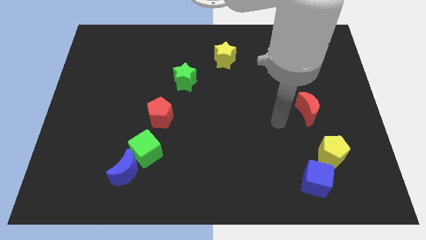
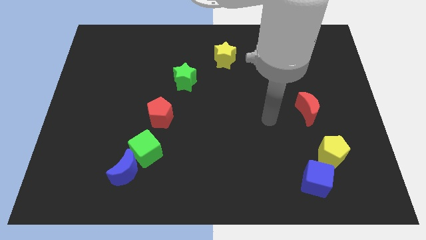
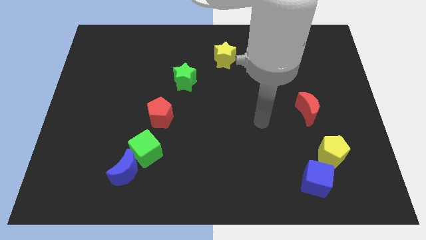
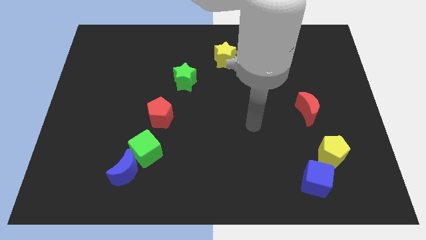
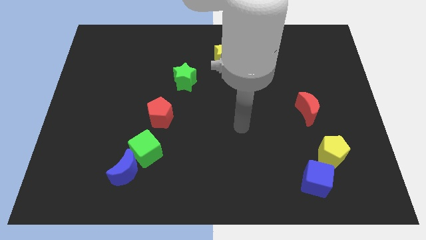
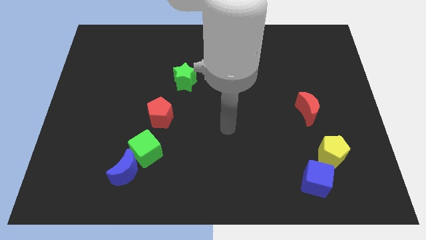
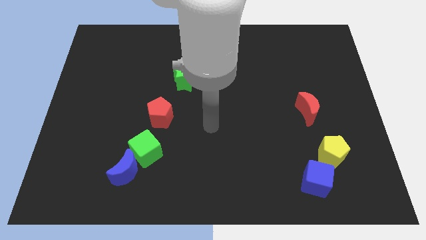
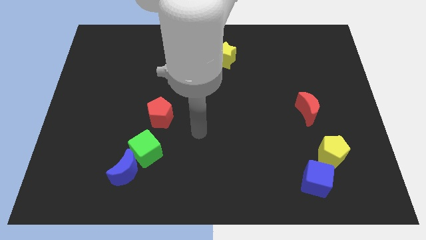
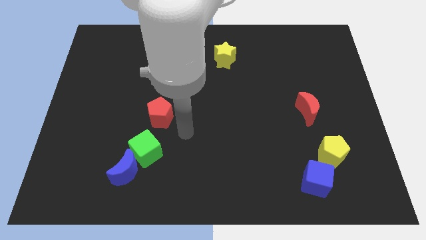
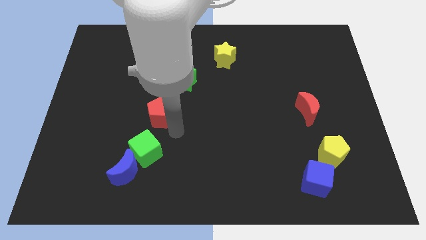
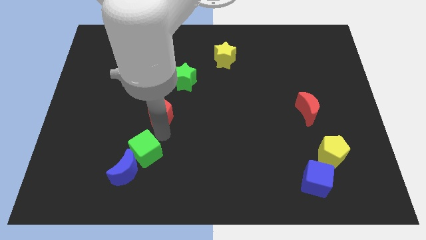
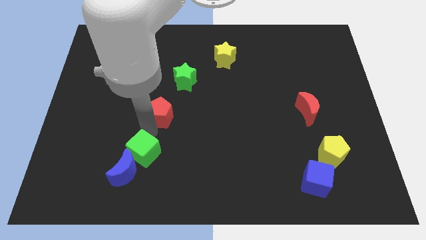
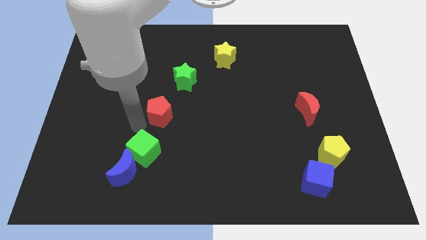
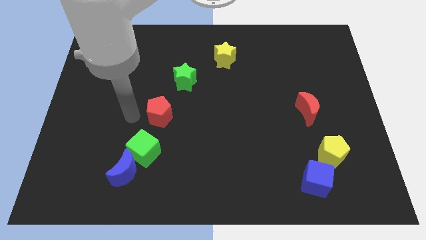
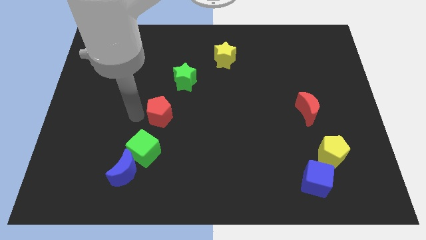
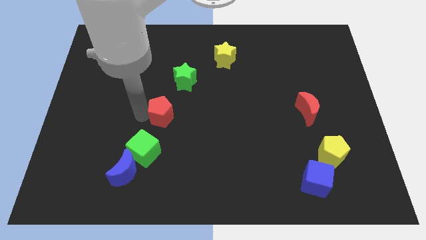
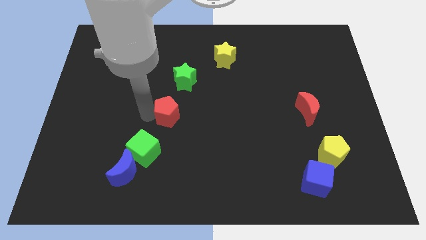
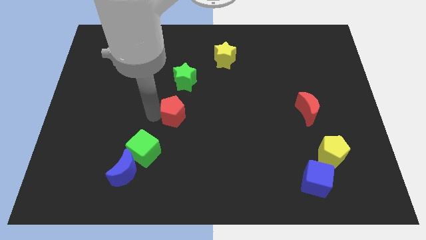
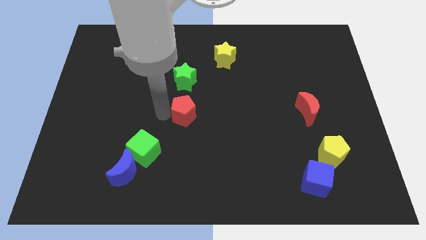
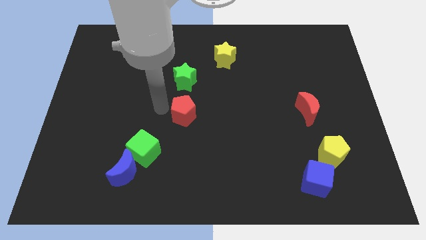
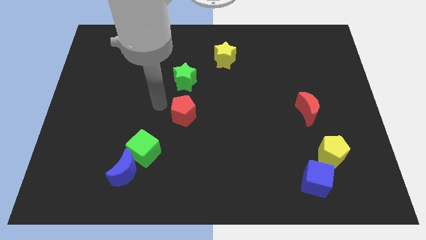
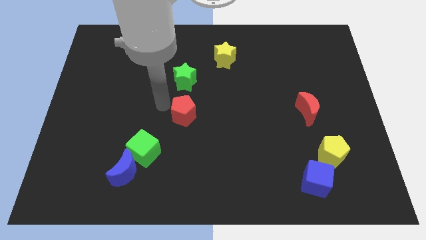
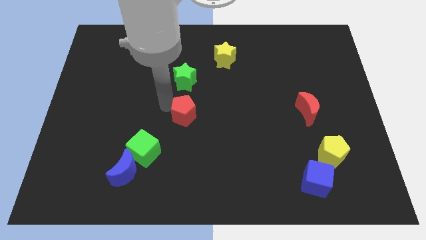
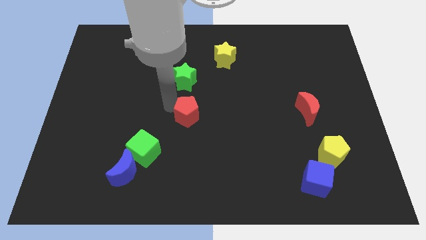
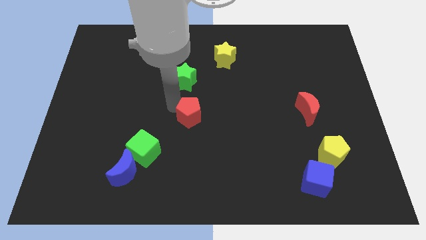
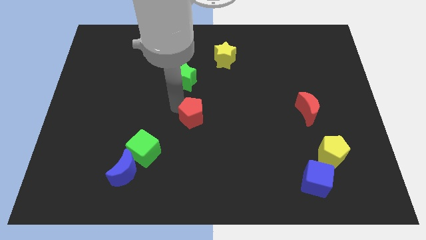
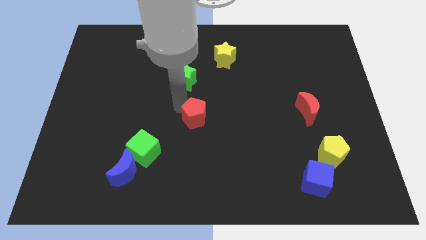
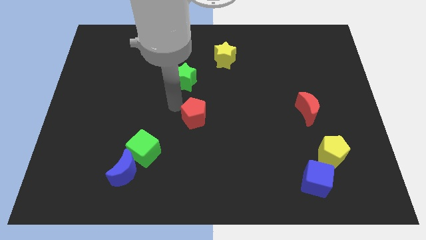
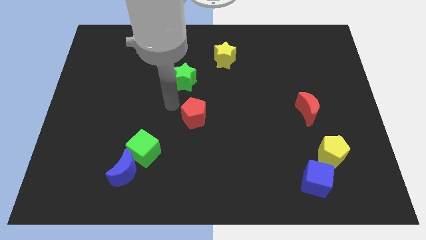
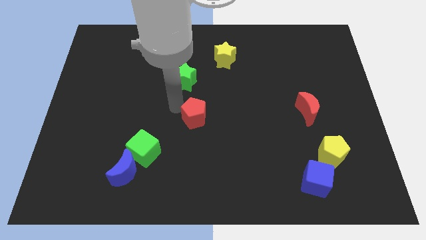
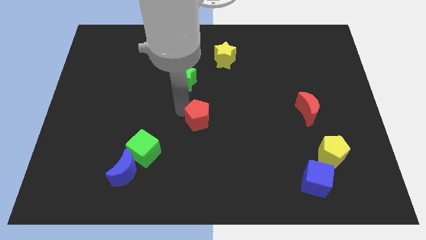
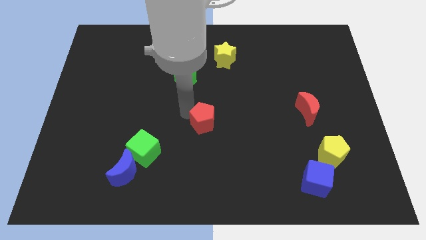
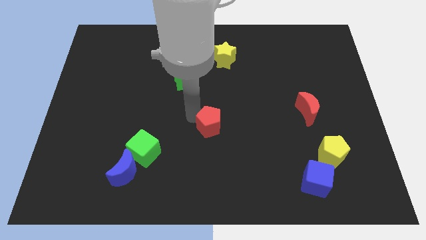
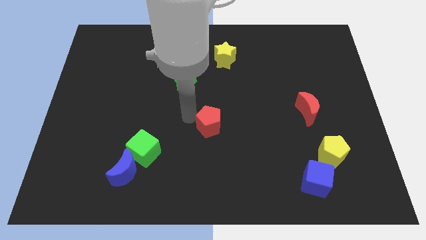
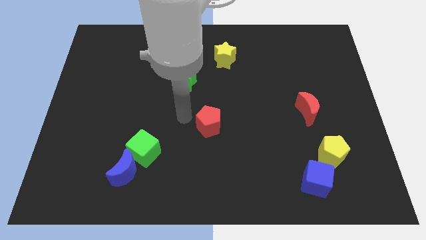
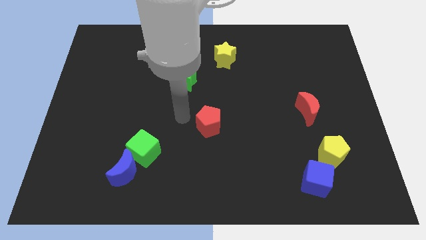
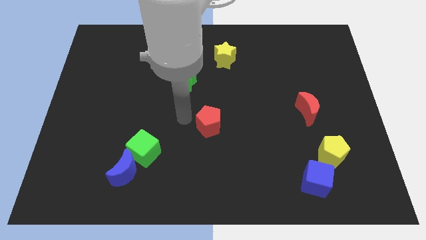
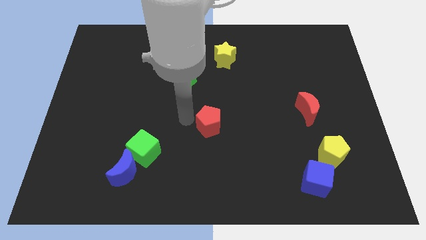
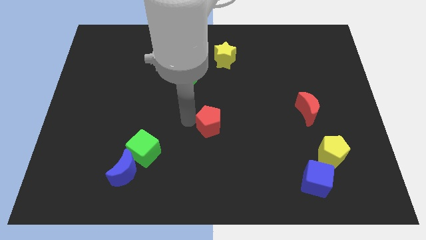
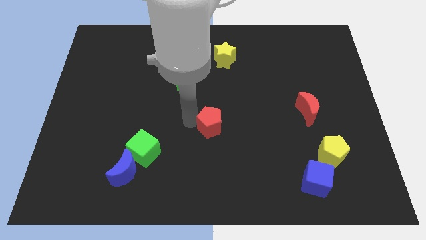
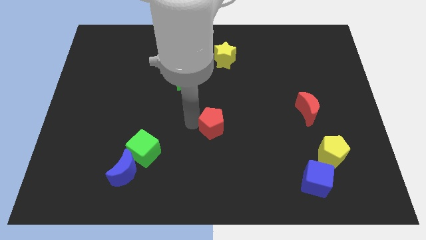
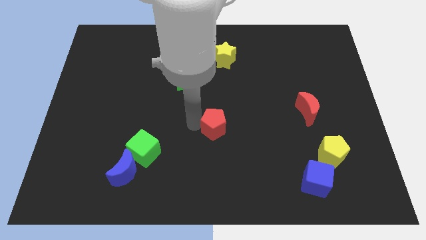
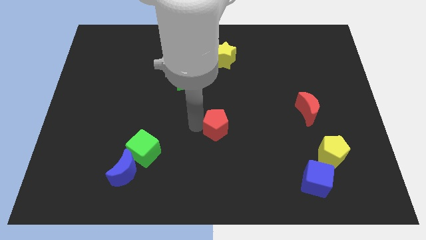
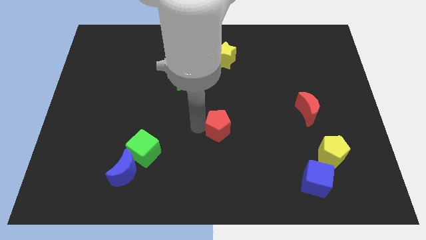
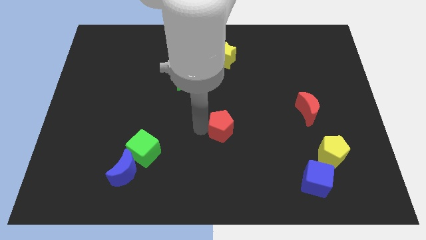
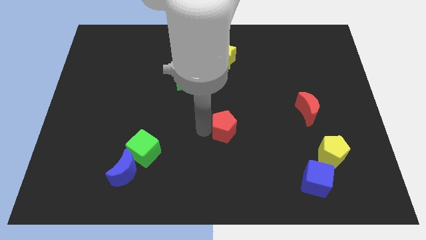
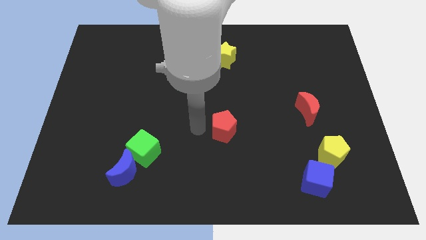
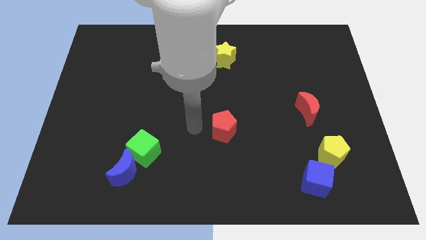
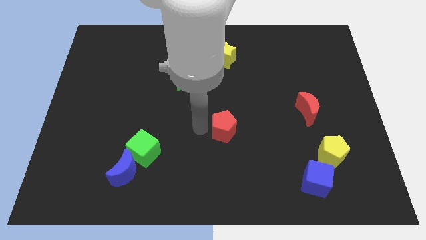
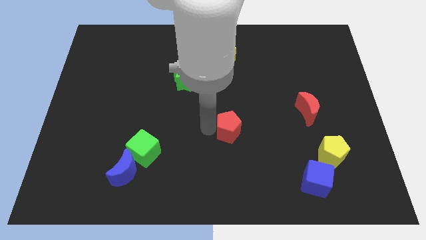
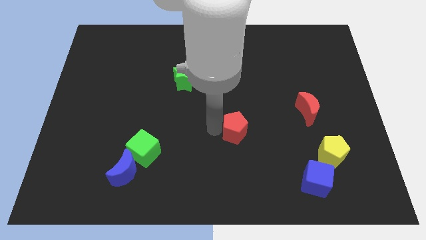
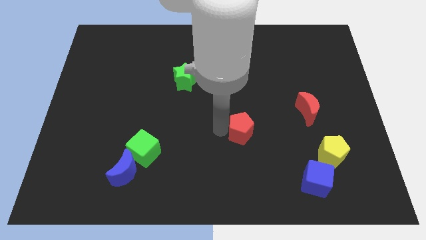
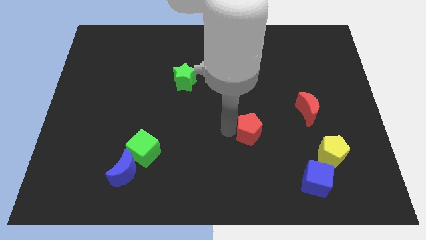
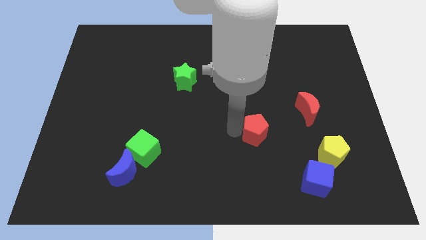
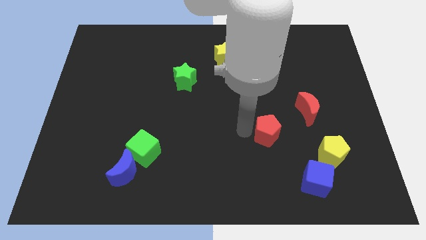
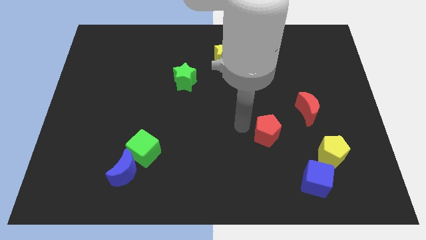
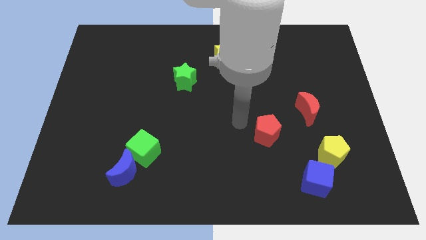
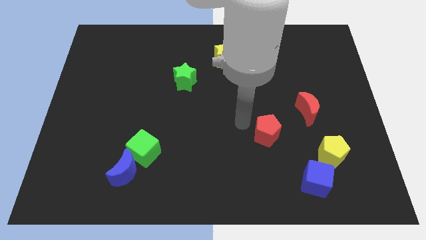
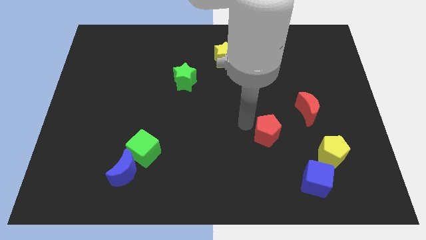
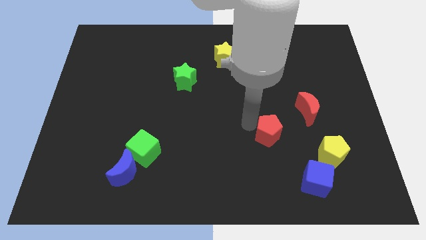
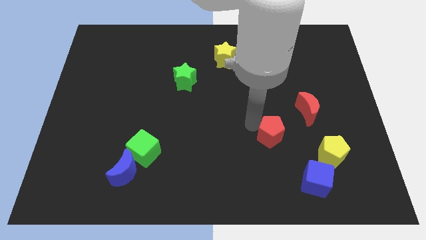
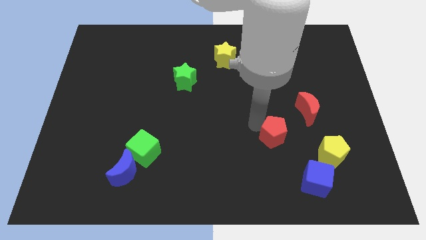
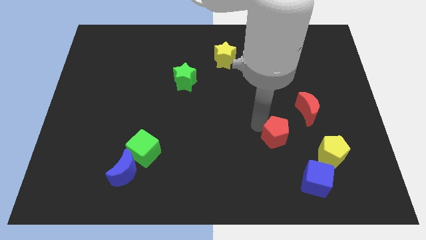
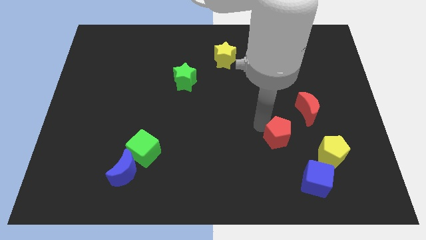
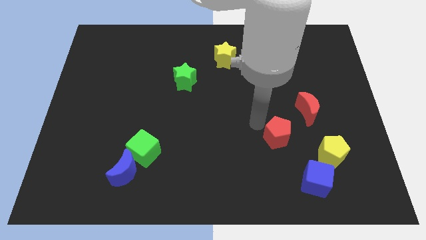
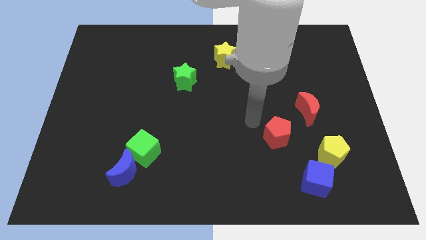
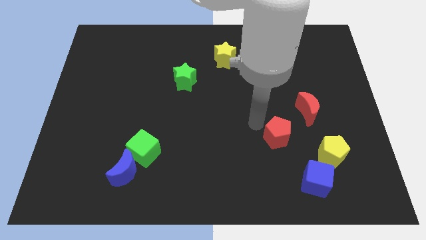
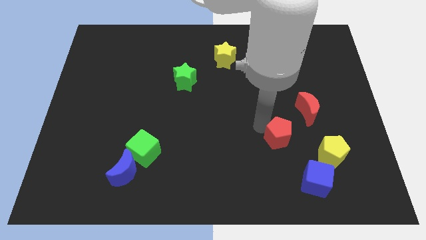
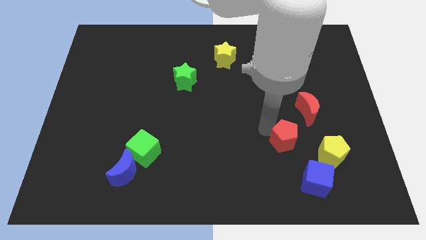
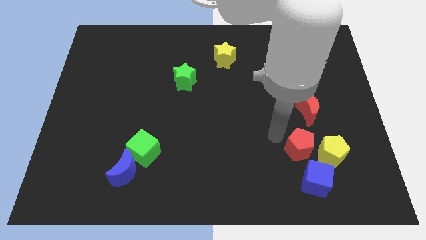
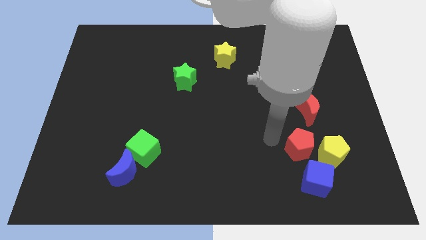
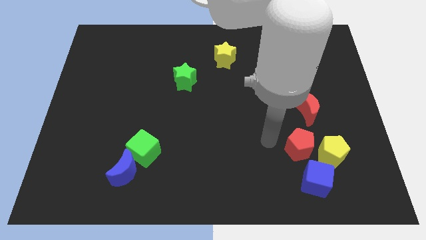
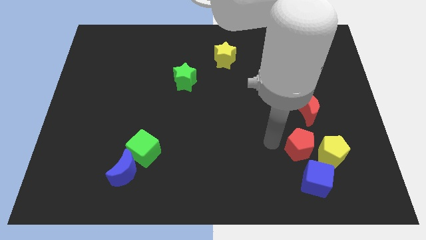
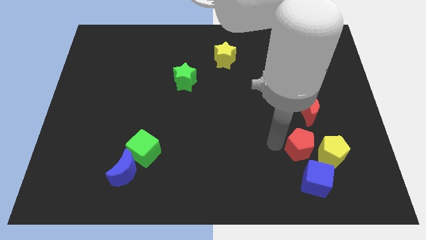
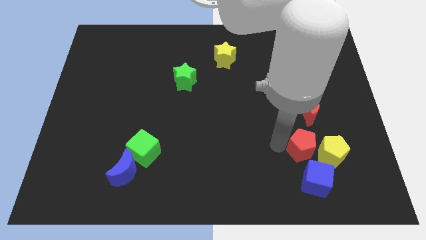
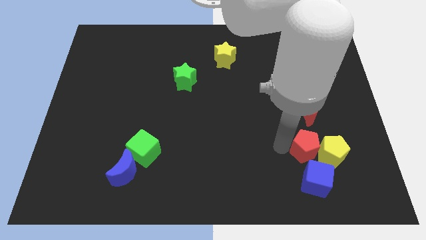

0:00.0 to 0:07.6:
move the red pentagon towards the yellow pentagon

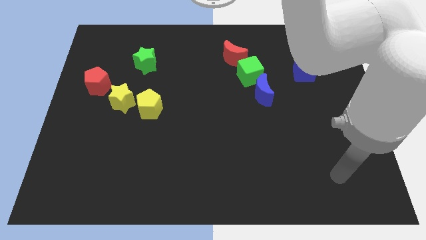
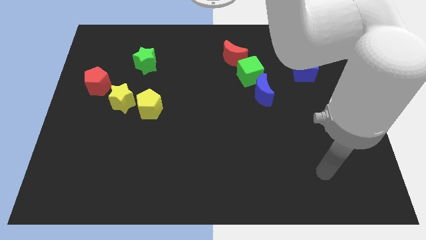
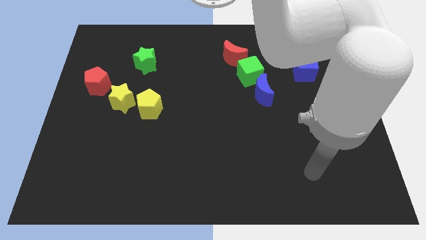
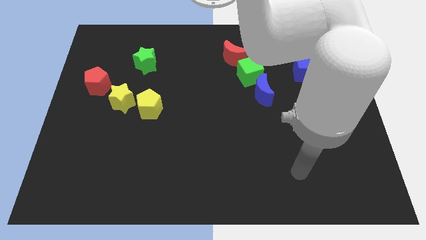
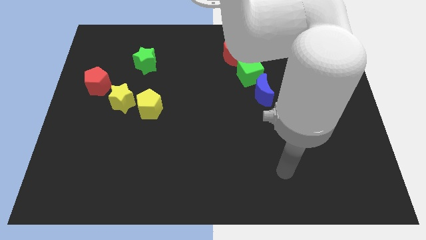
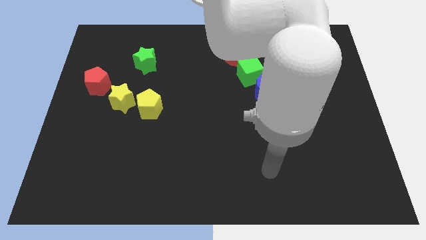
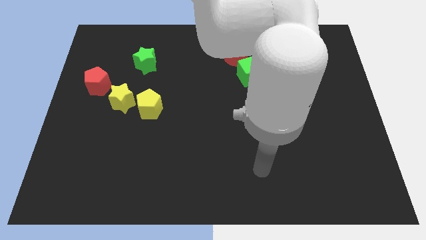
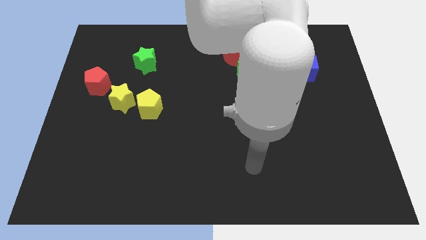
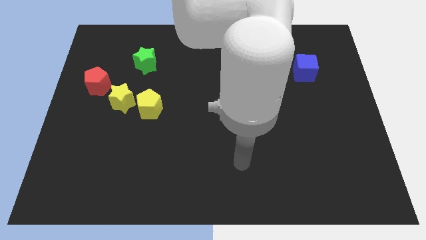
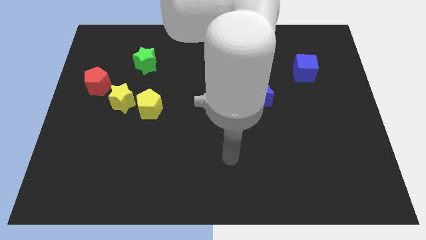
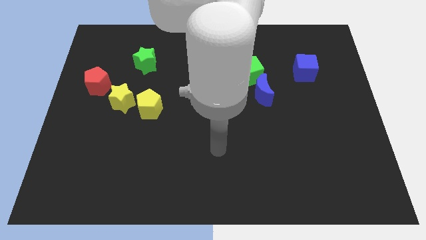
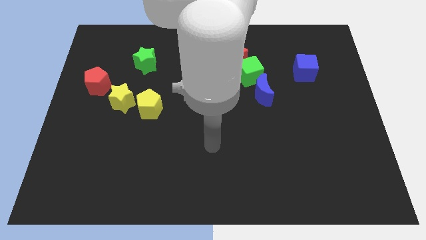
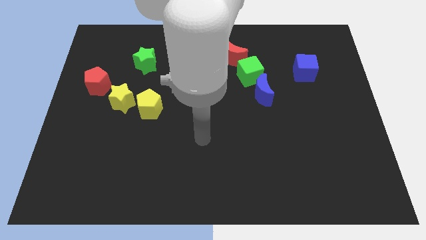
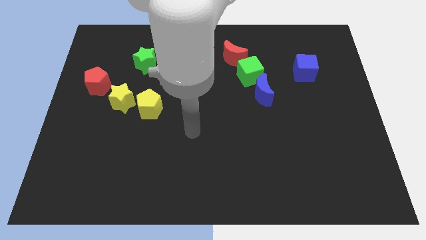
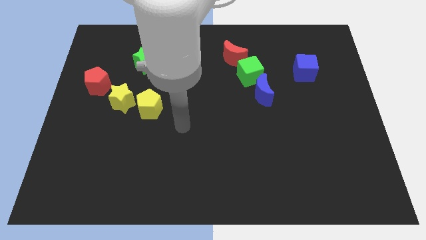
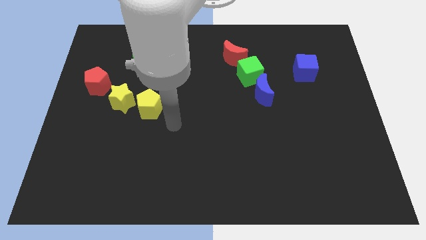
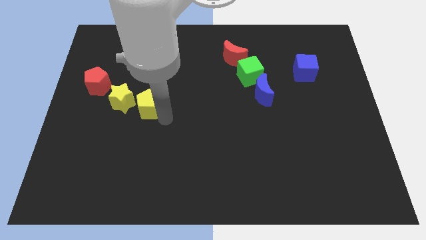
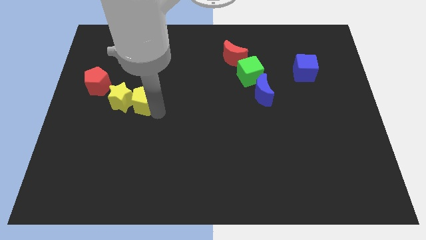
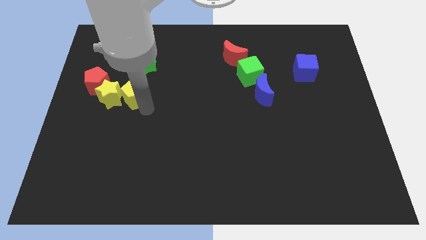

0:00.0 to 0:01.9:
put the yellow star to the red pentagon
